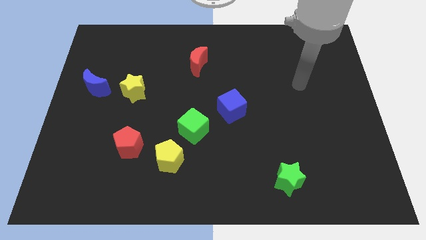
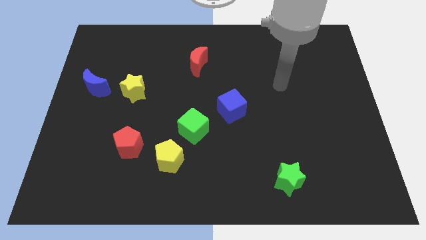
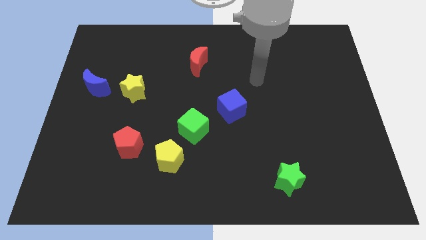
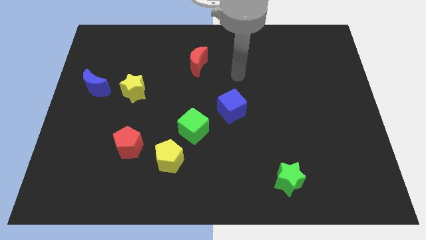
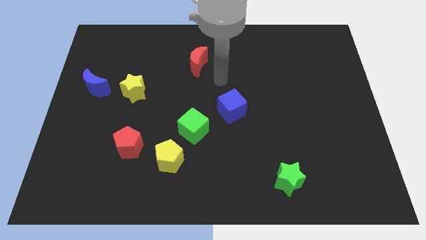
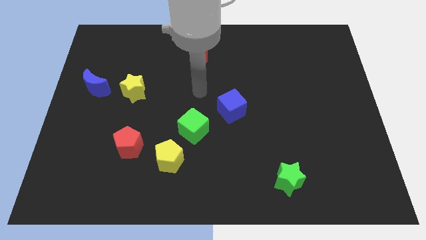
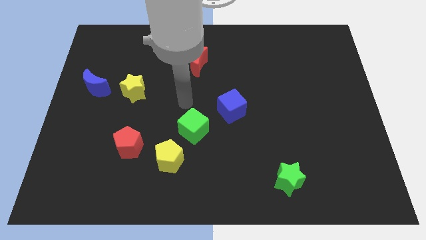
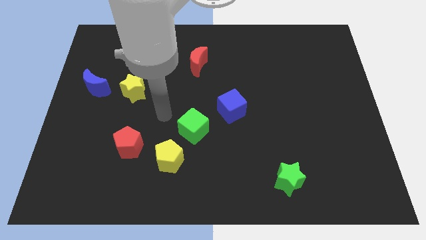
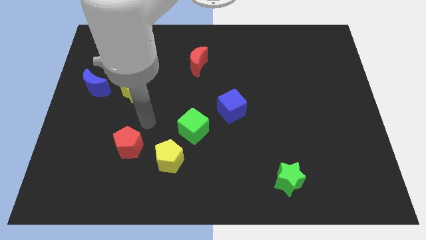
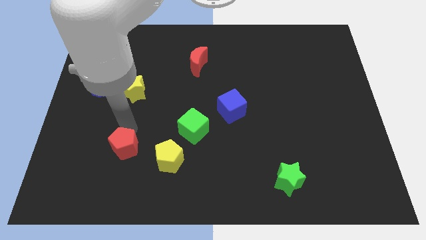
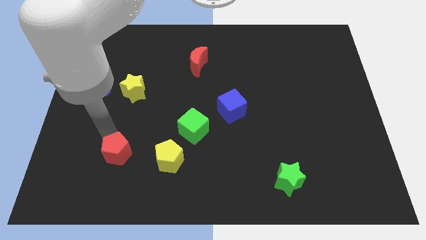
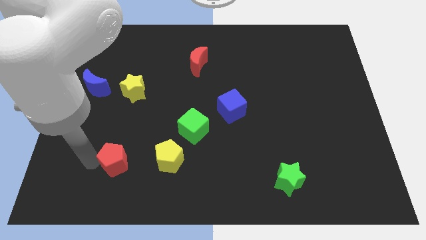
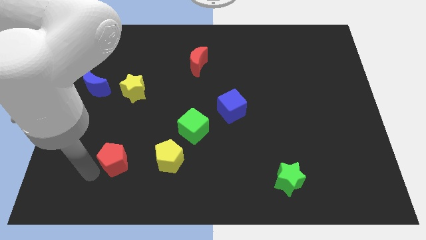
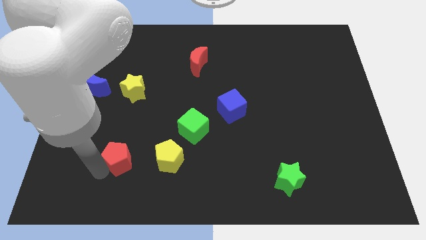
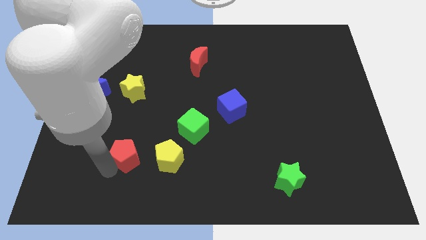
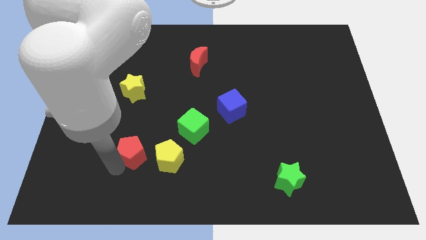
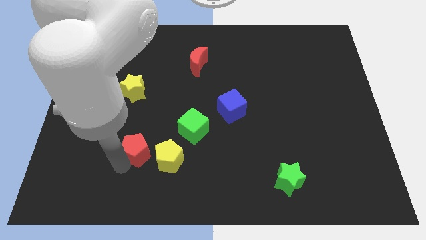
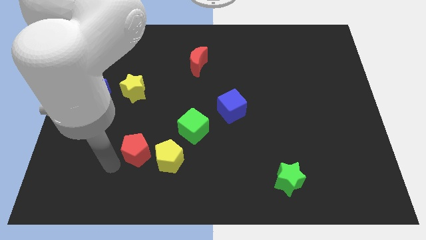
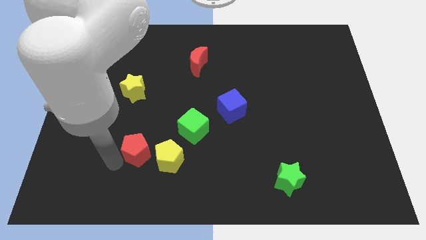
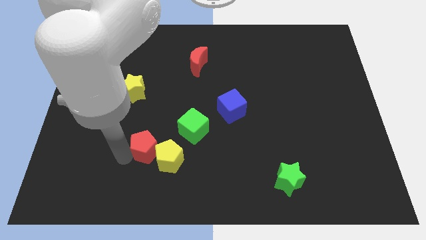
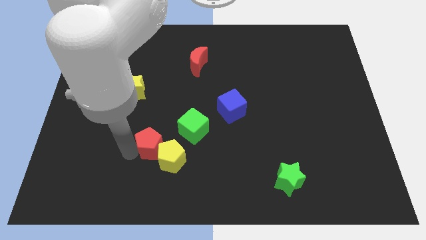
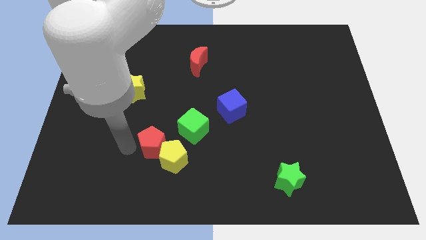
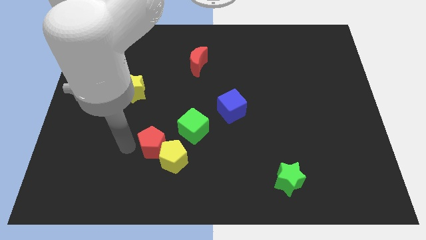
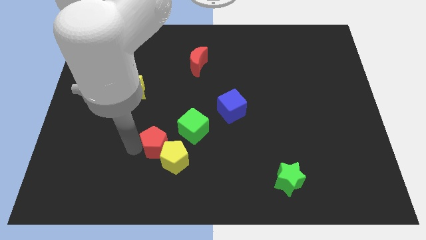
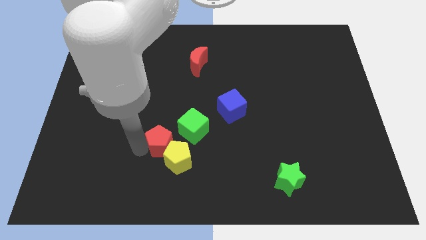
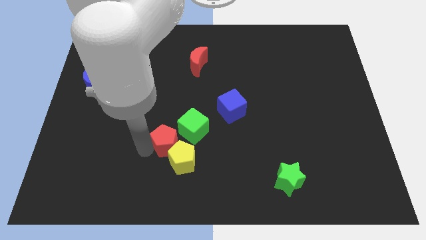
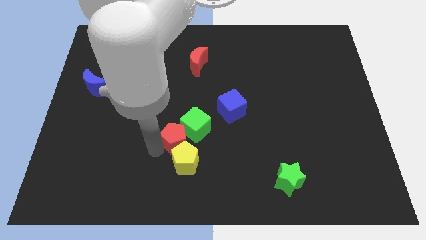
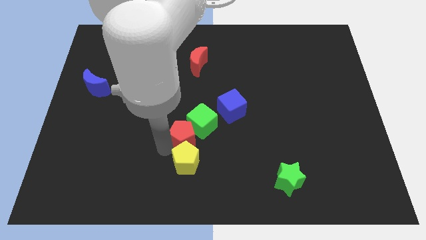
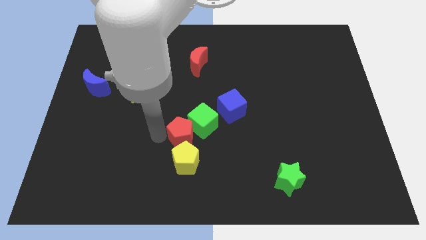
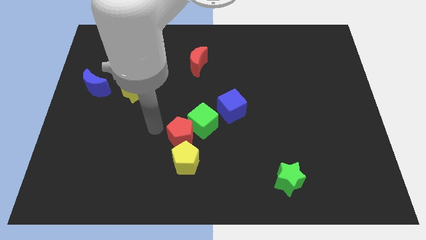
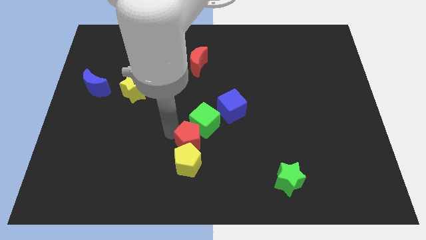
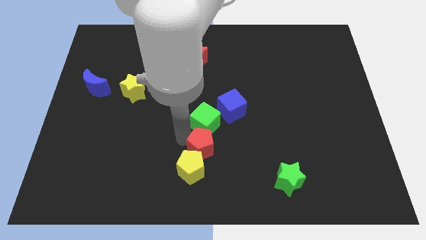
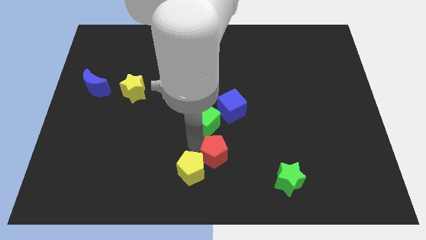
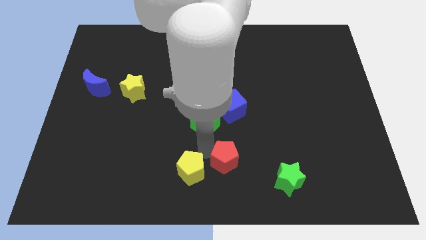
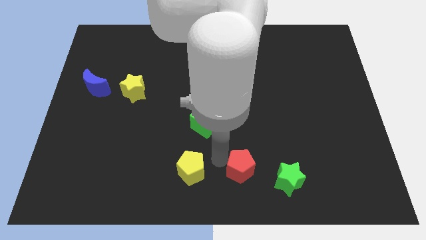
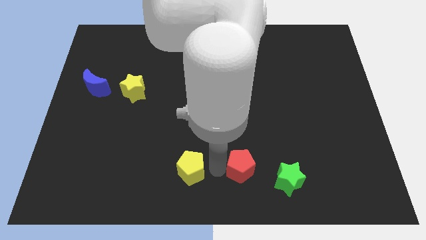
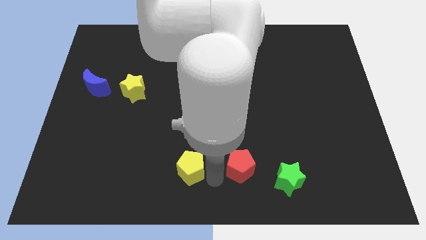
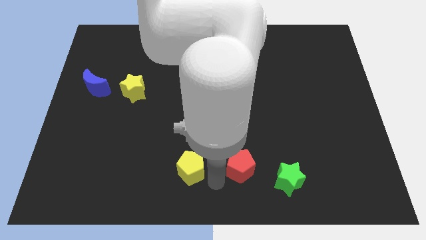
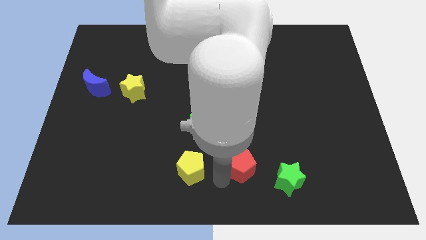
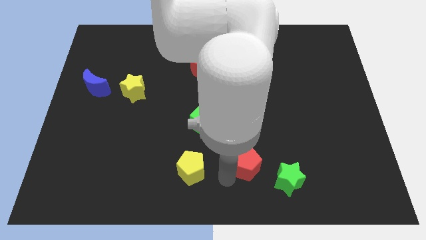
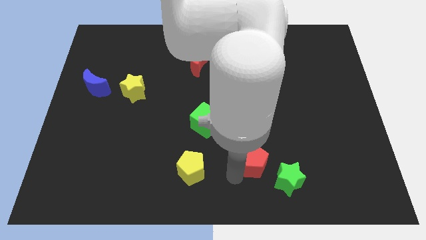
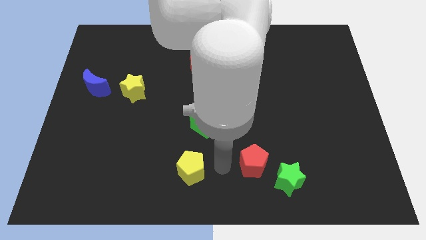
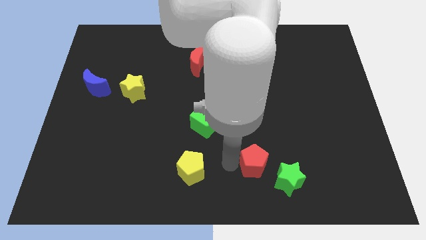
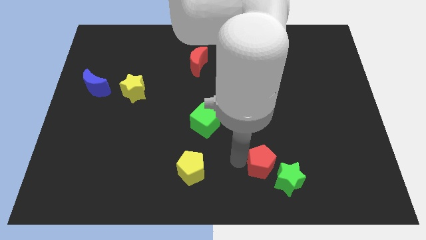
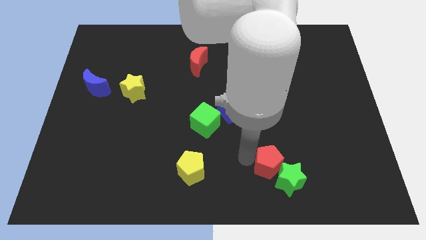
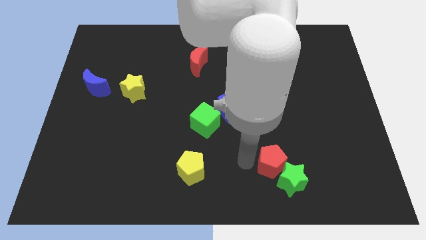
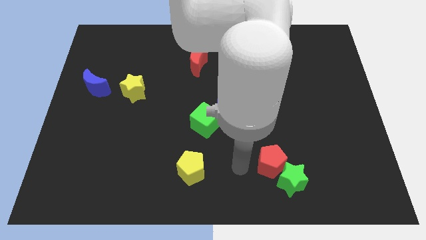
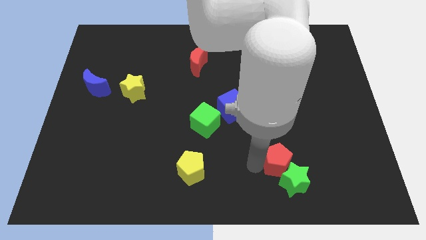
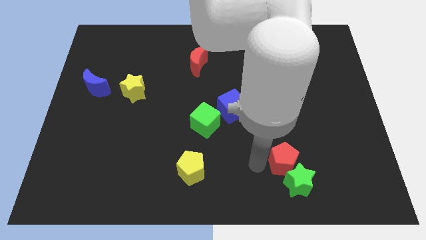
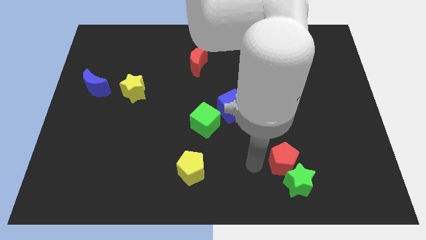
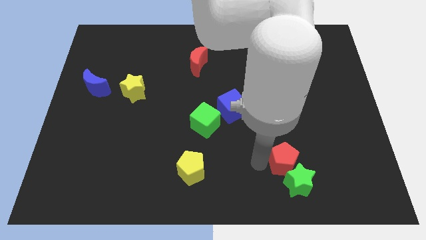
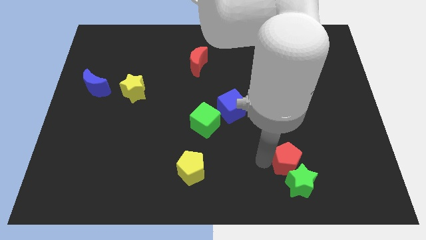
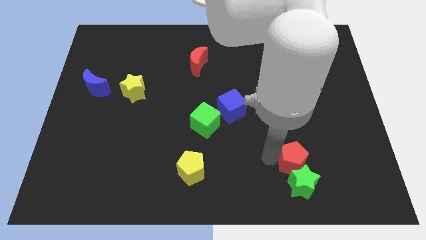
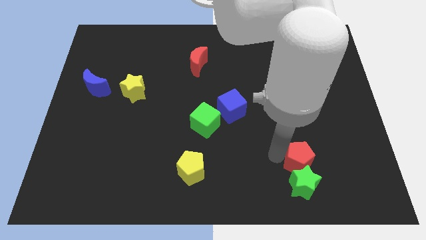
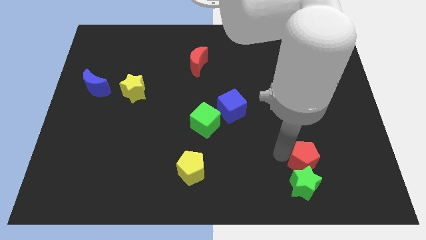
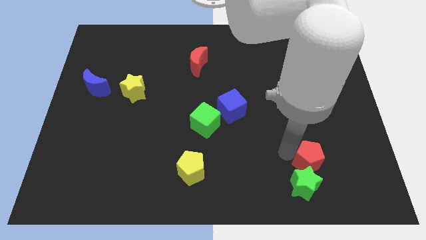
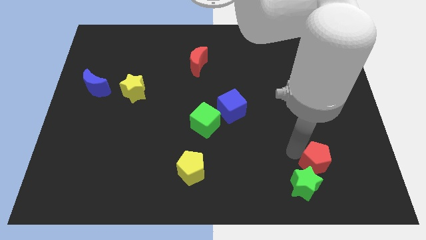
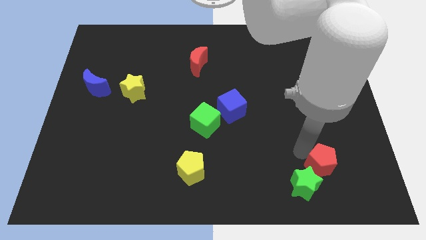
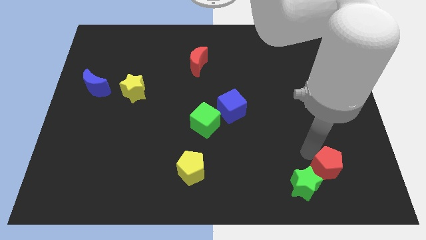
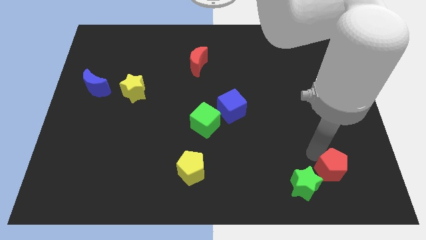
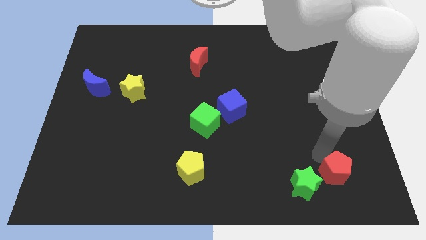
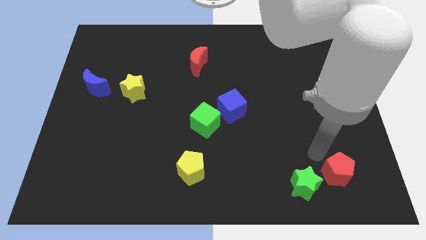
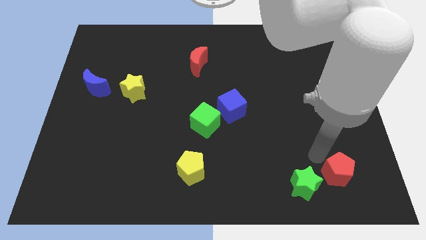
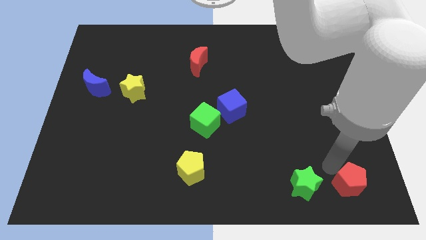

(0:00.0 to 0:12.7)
put the red pentagon to the bottom right corner
